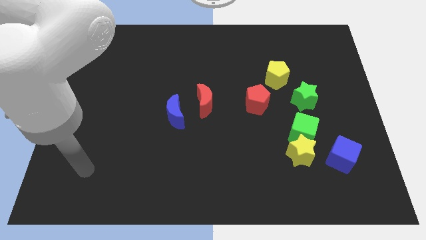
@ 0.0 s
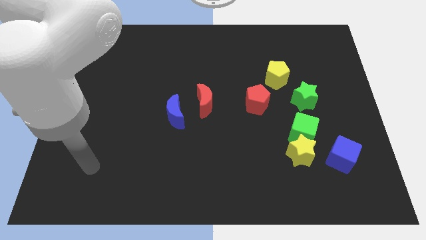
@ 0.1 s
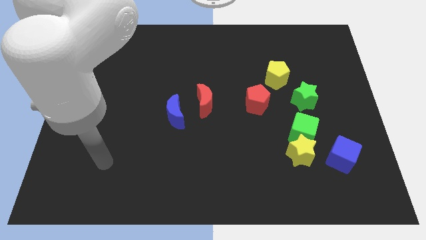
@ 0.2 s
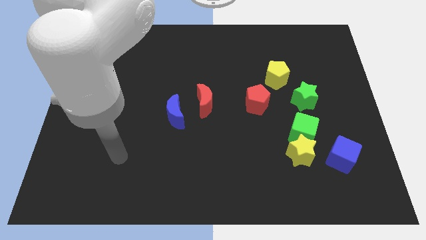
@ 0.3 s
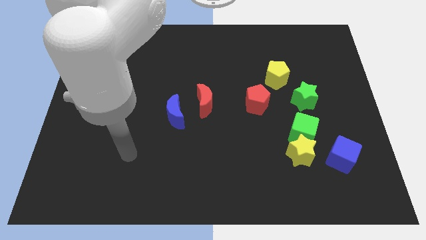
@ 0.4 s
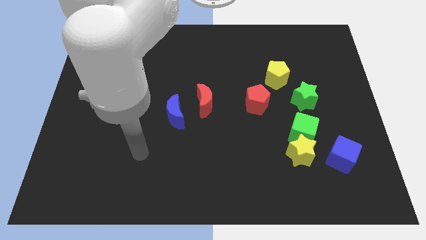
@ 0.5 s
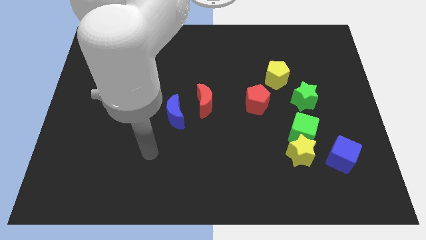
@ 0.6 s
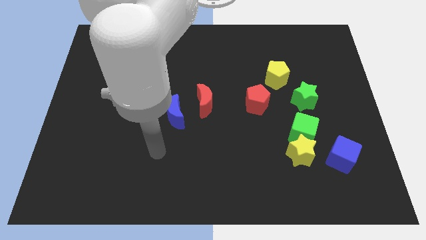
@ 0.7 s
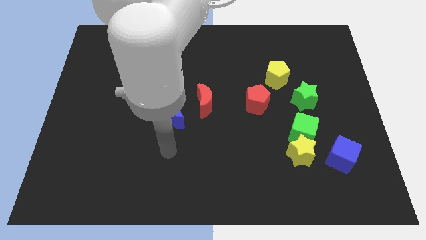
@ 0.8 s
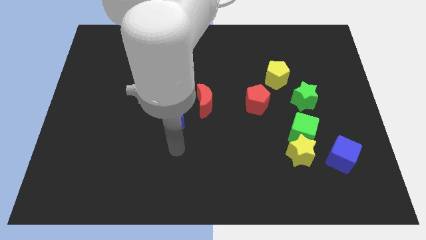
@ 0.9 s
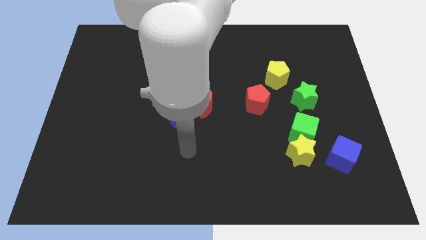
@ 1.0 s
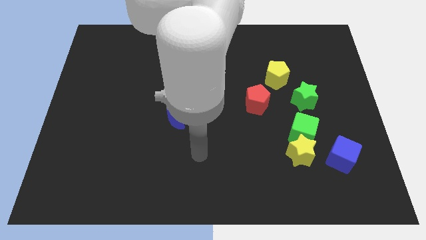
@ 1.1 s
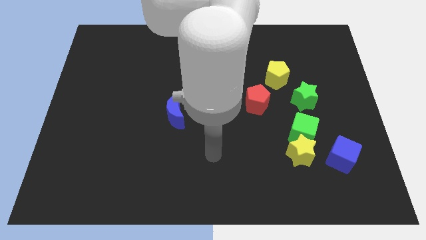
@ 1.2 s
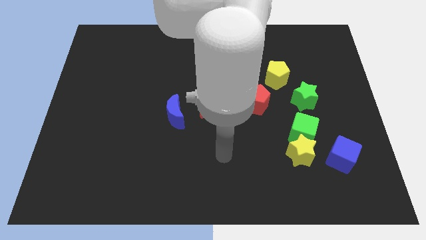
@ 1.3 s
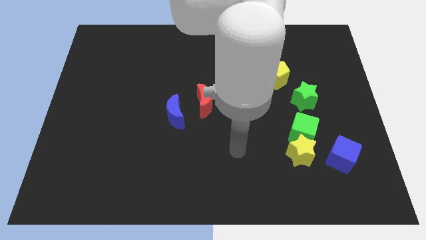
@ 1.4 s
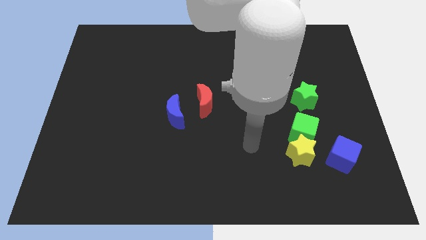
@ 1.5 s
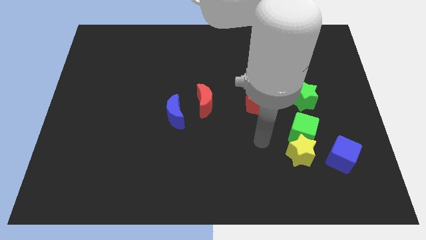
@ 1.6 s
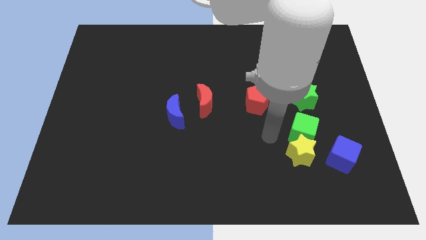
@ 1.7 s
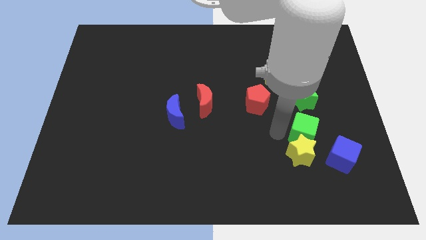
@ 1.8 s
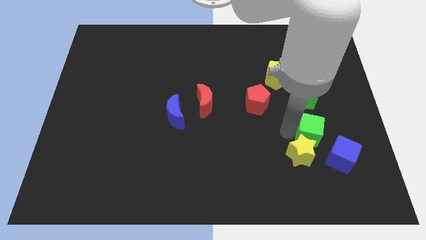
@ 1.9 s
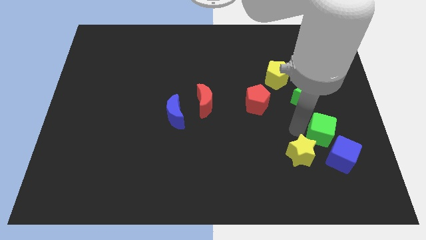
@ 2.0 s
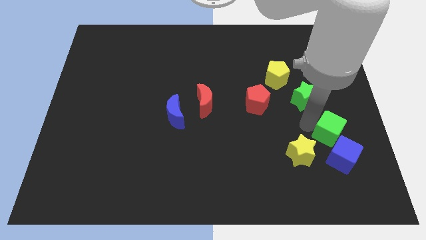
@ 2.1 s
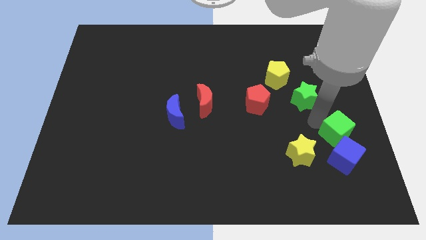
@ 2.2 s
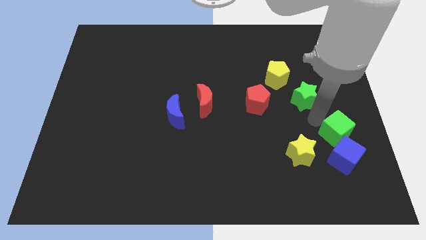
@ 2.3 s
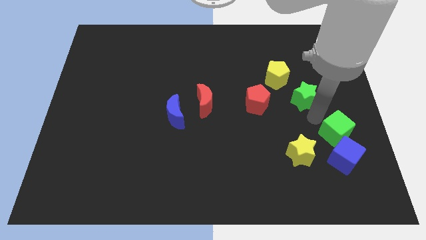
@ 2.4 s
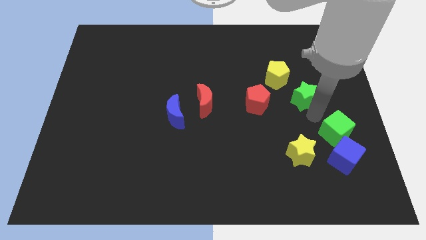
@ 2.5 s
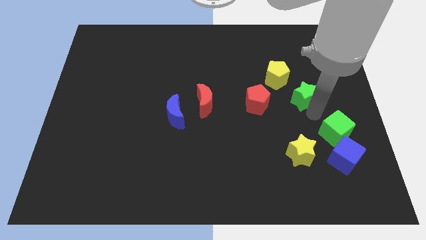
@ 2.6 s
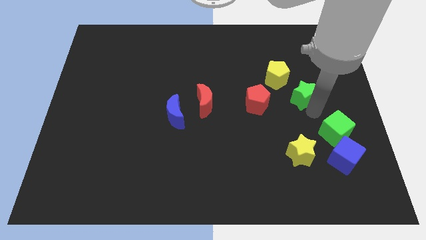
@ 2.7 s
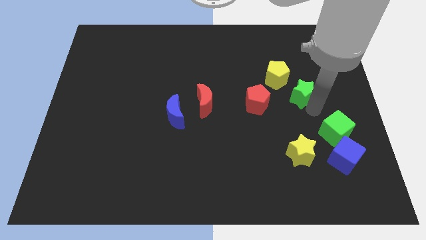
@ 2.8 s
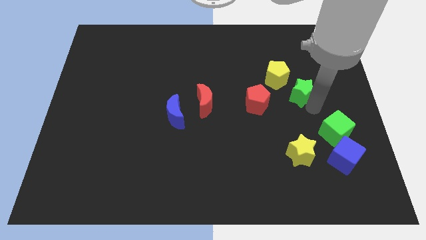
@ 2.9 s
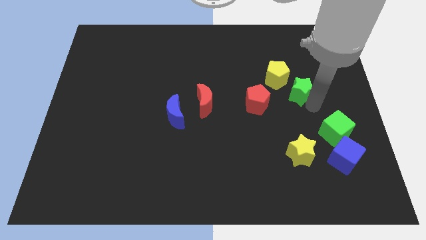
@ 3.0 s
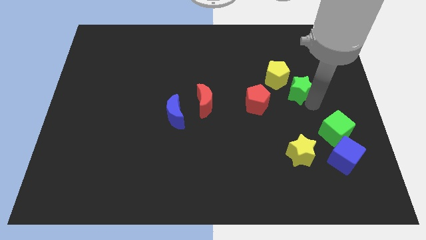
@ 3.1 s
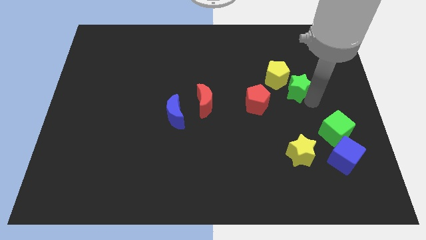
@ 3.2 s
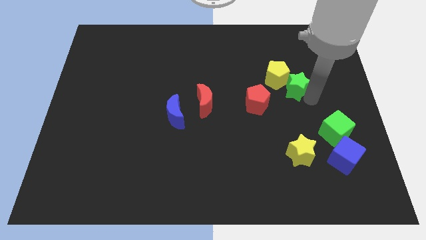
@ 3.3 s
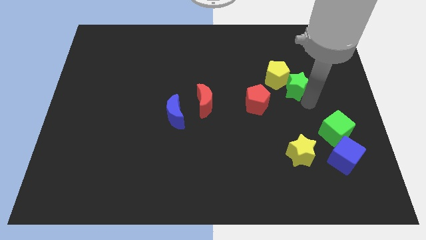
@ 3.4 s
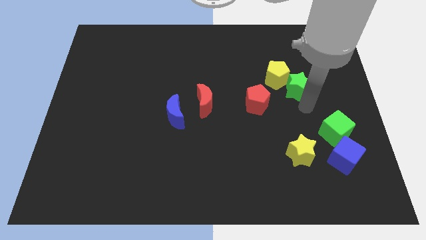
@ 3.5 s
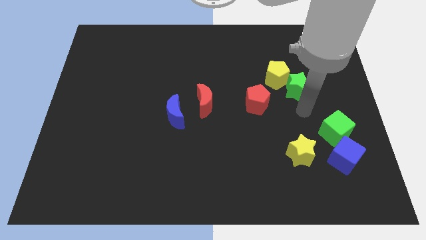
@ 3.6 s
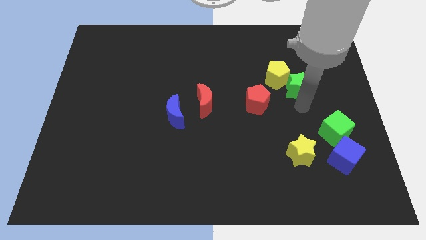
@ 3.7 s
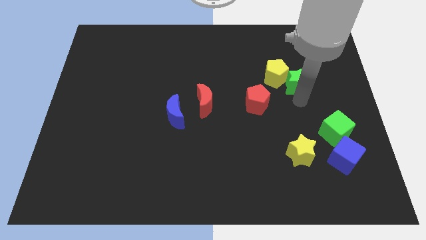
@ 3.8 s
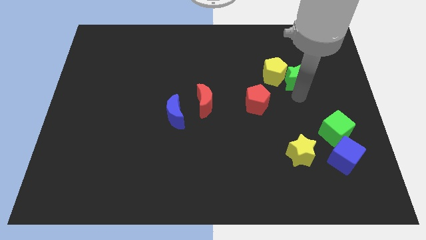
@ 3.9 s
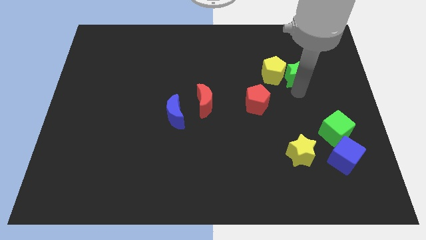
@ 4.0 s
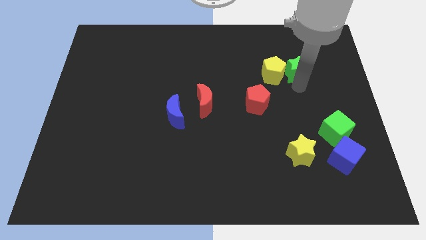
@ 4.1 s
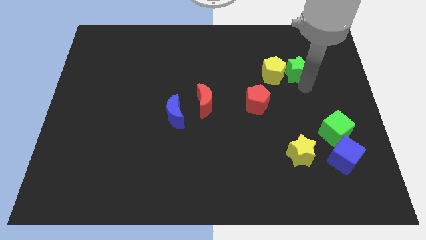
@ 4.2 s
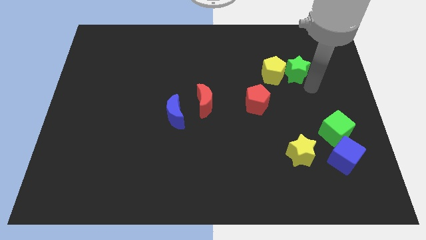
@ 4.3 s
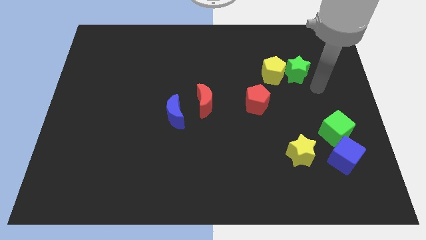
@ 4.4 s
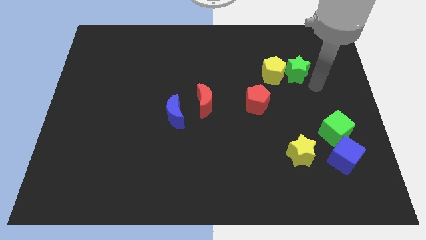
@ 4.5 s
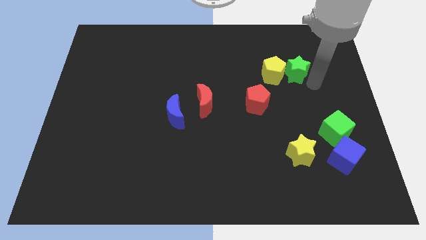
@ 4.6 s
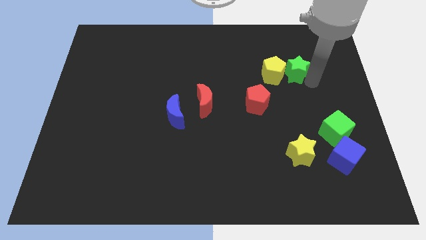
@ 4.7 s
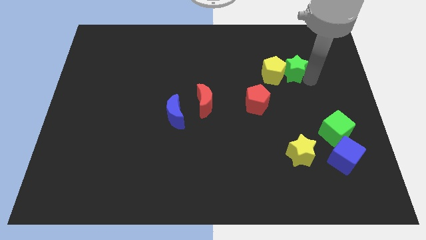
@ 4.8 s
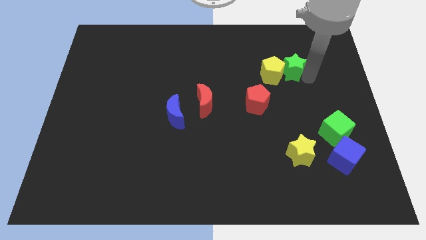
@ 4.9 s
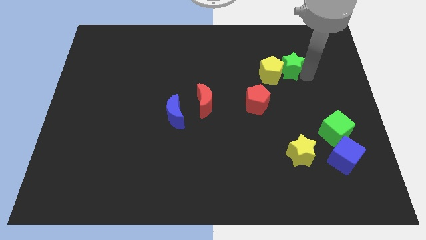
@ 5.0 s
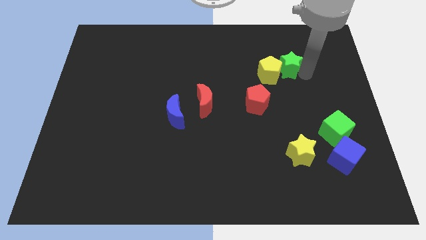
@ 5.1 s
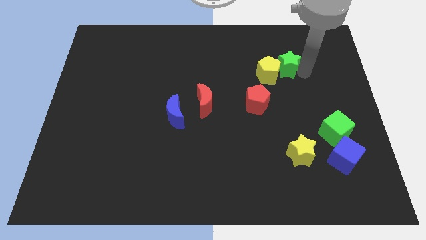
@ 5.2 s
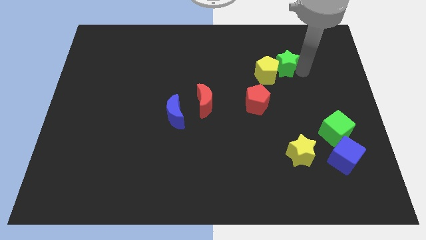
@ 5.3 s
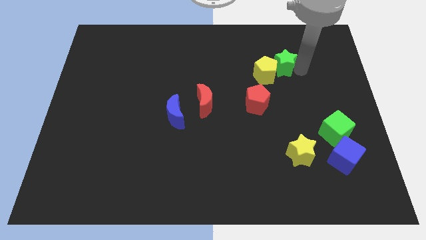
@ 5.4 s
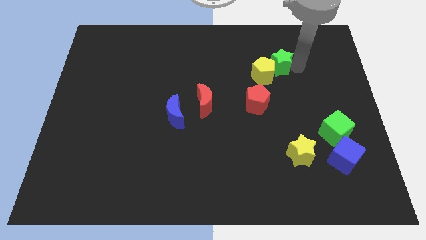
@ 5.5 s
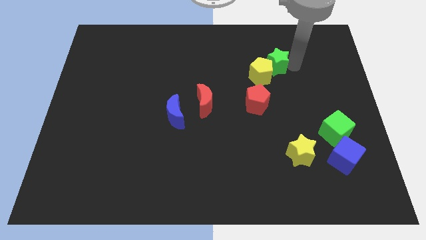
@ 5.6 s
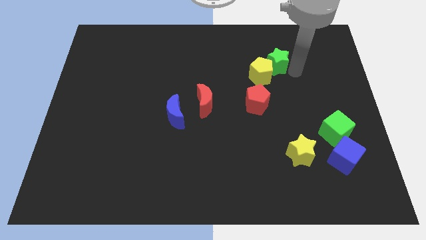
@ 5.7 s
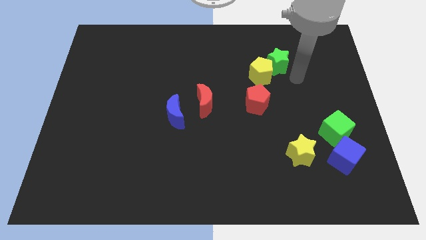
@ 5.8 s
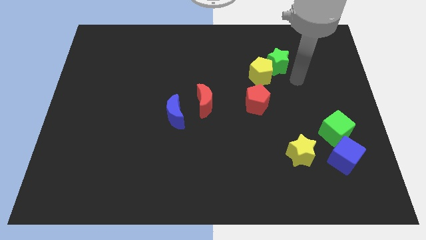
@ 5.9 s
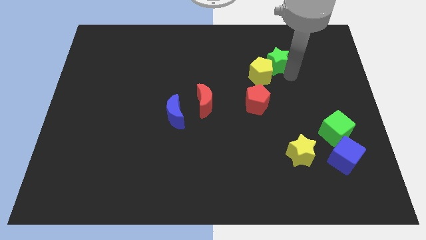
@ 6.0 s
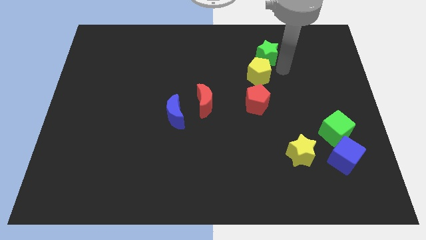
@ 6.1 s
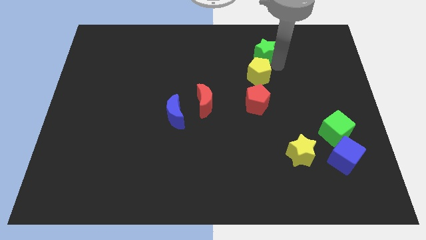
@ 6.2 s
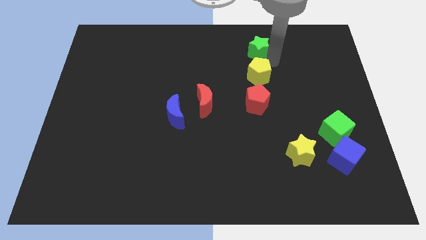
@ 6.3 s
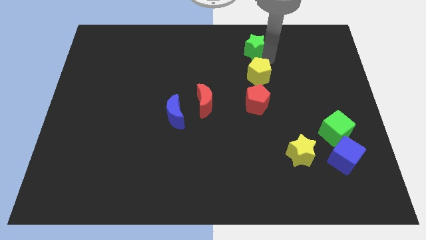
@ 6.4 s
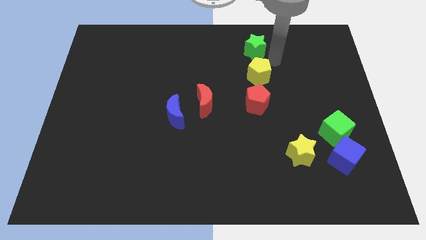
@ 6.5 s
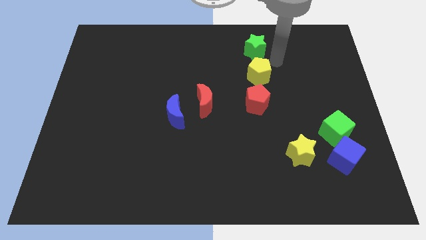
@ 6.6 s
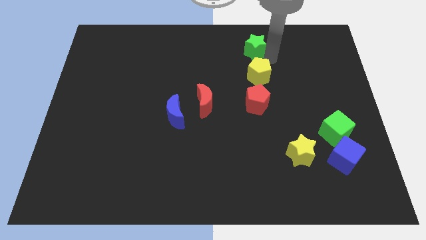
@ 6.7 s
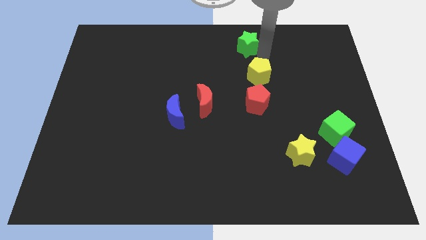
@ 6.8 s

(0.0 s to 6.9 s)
slide the green star to the top

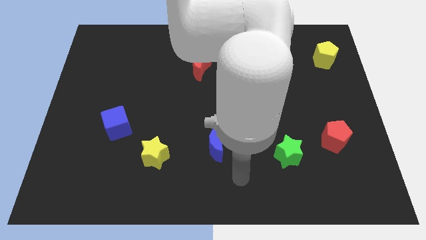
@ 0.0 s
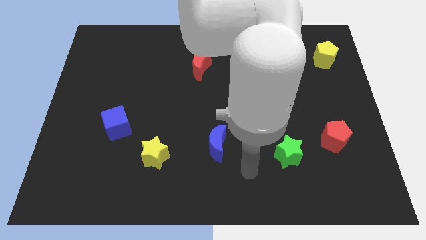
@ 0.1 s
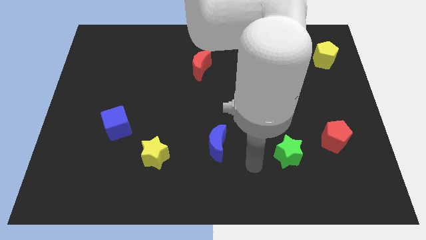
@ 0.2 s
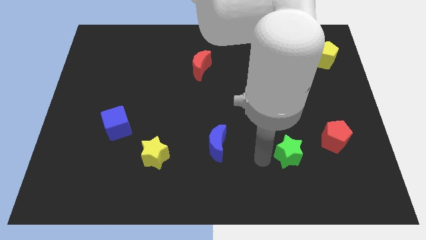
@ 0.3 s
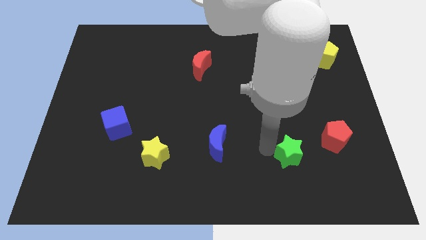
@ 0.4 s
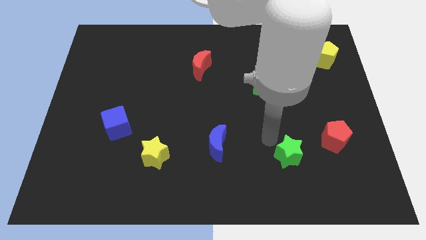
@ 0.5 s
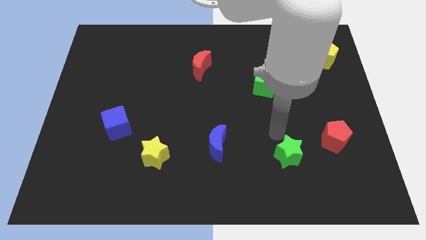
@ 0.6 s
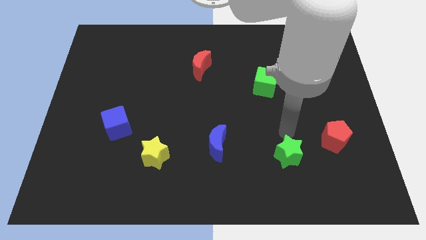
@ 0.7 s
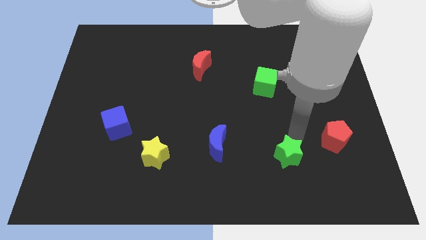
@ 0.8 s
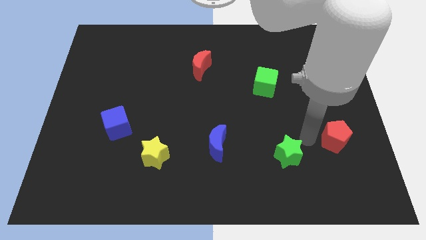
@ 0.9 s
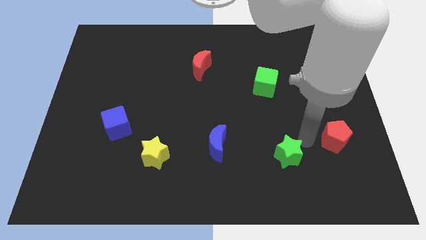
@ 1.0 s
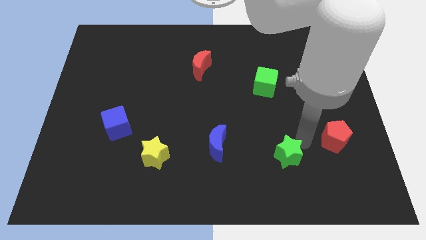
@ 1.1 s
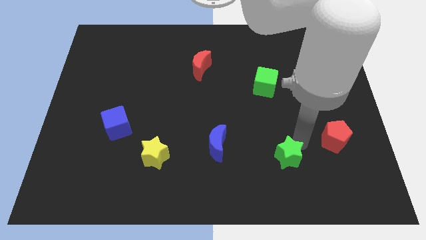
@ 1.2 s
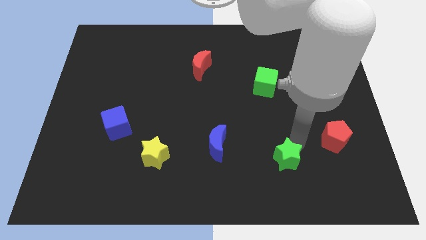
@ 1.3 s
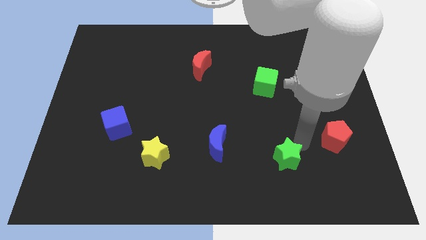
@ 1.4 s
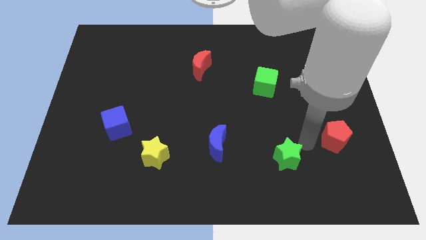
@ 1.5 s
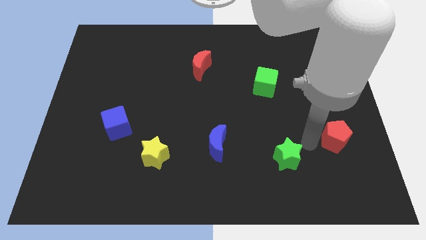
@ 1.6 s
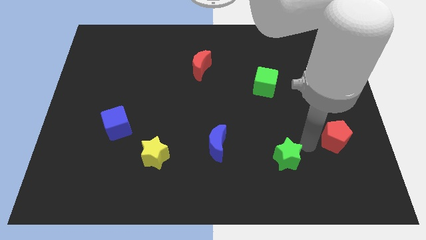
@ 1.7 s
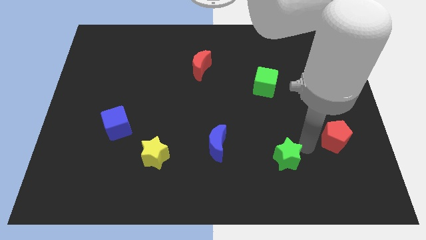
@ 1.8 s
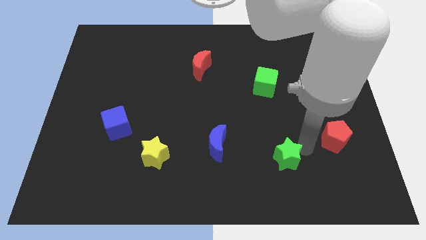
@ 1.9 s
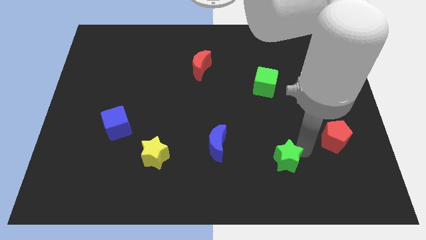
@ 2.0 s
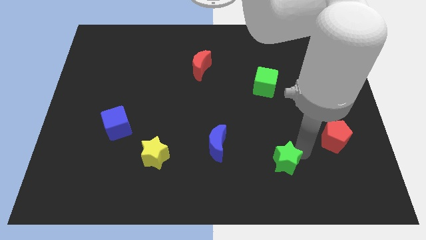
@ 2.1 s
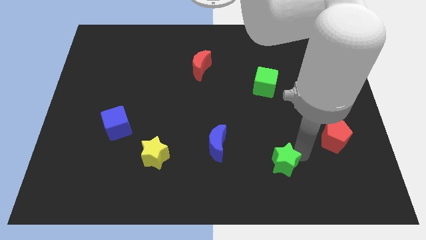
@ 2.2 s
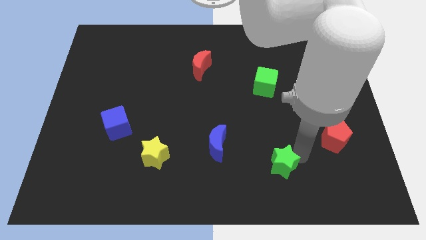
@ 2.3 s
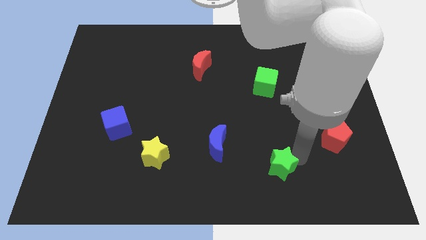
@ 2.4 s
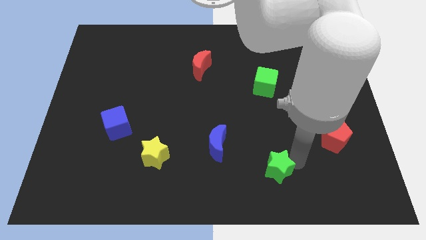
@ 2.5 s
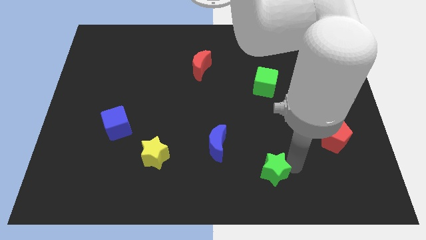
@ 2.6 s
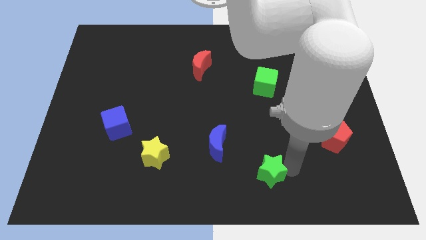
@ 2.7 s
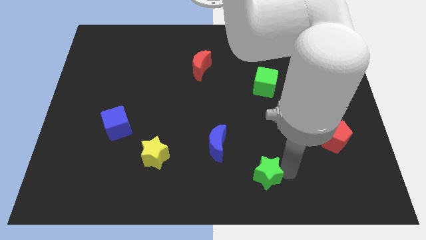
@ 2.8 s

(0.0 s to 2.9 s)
move the green star to the bottom
